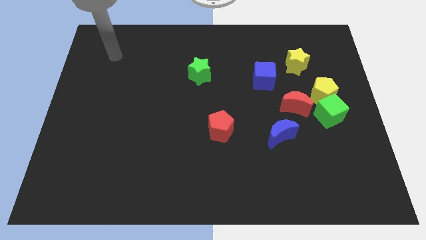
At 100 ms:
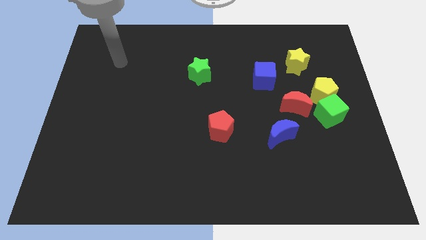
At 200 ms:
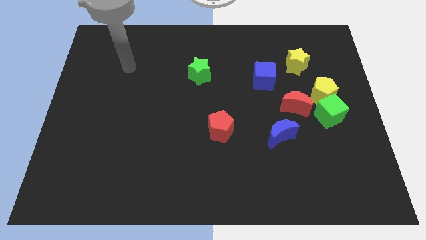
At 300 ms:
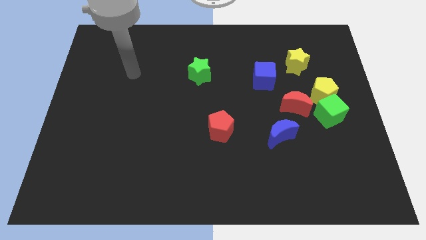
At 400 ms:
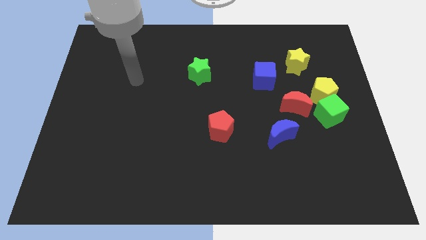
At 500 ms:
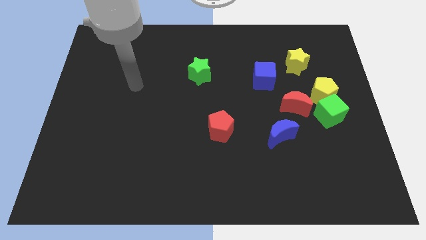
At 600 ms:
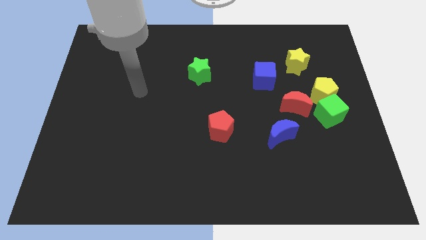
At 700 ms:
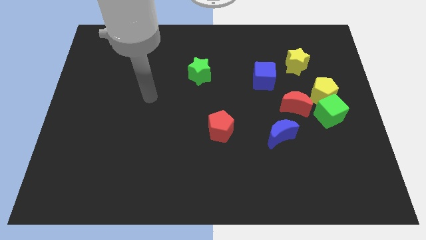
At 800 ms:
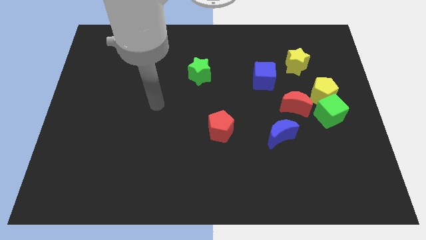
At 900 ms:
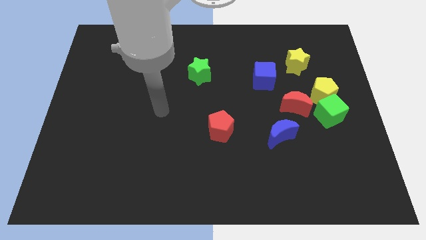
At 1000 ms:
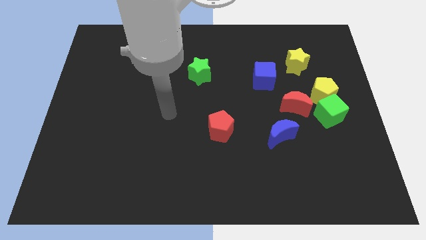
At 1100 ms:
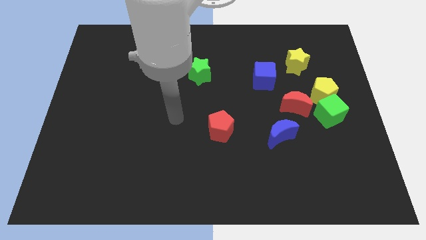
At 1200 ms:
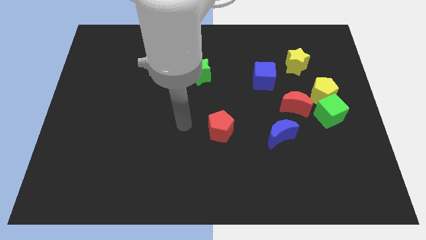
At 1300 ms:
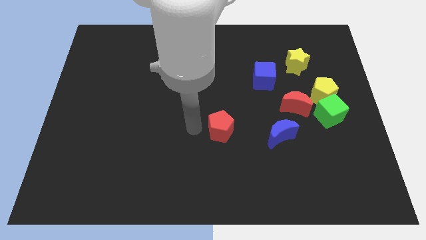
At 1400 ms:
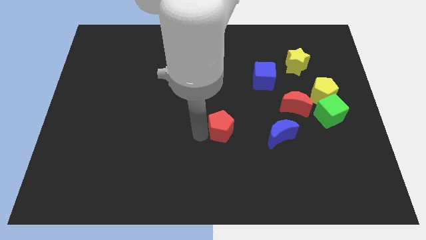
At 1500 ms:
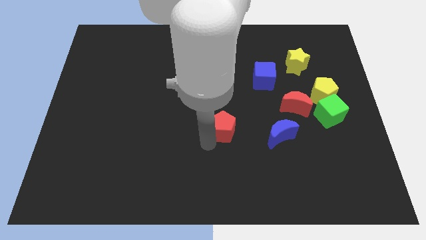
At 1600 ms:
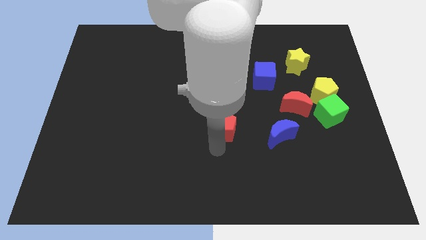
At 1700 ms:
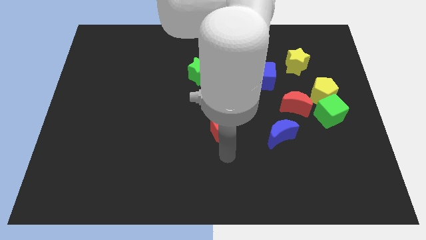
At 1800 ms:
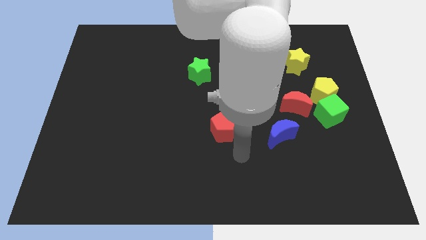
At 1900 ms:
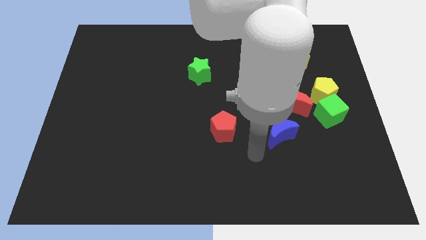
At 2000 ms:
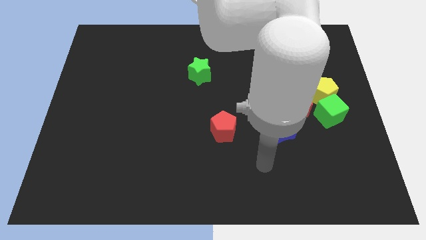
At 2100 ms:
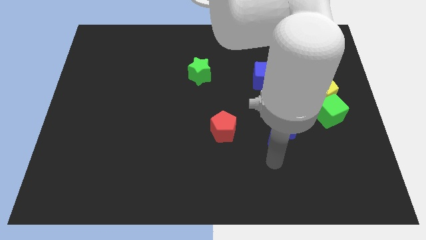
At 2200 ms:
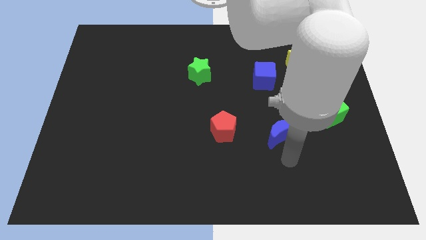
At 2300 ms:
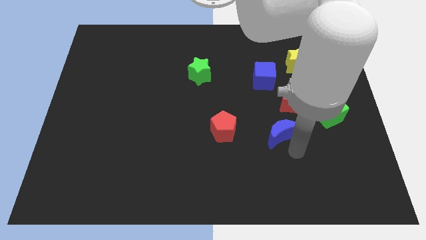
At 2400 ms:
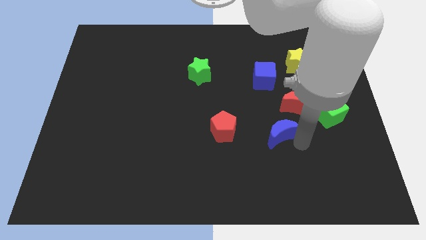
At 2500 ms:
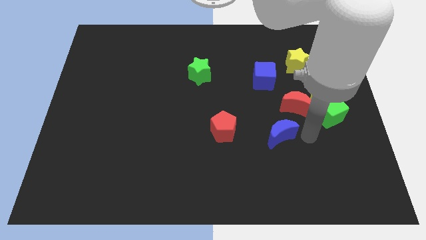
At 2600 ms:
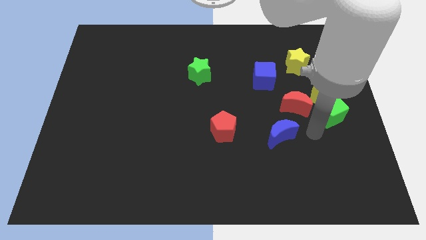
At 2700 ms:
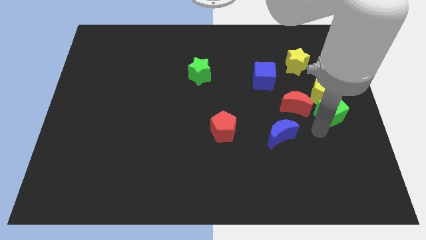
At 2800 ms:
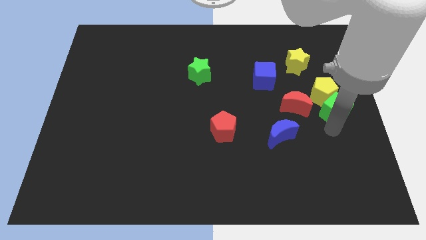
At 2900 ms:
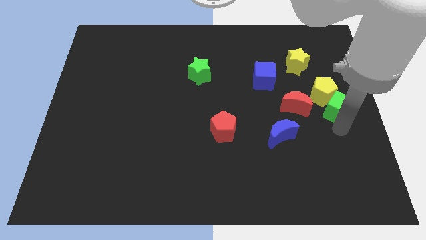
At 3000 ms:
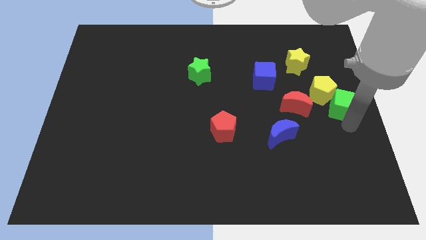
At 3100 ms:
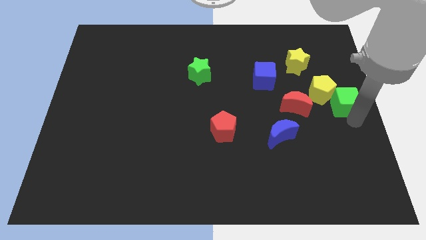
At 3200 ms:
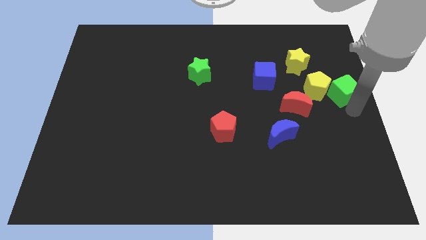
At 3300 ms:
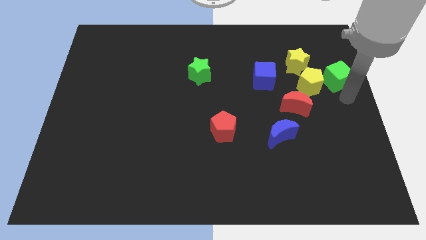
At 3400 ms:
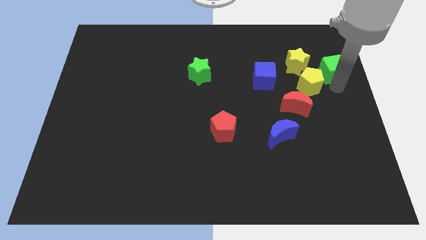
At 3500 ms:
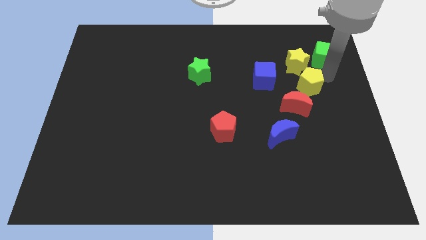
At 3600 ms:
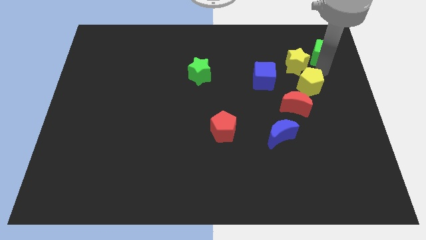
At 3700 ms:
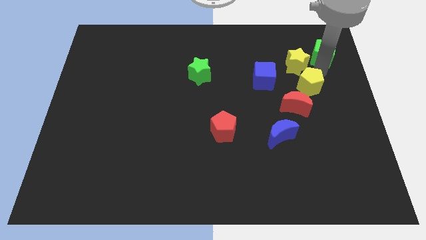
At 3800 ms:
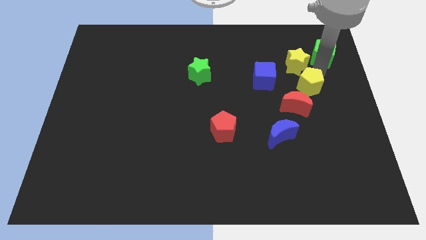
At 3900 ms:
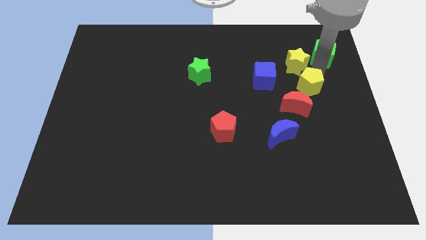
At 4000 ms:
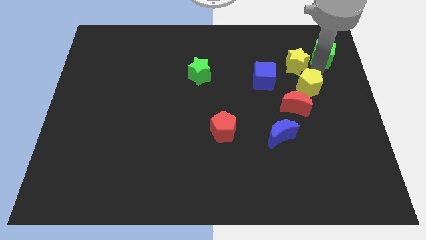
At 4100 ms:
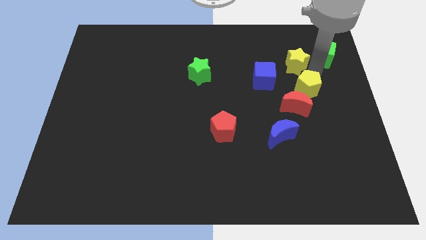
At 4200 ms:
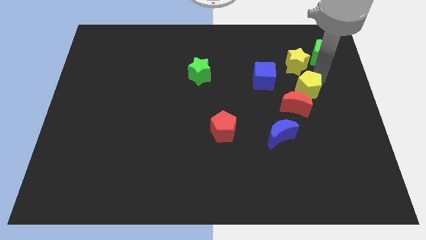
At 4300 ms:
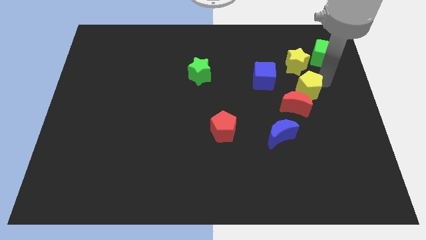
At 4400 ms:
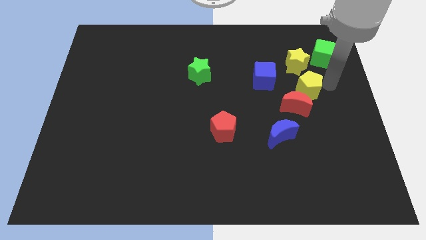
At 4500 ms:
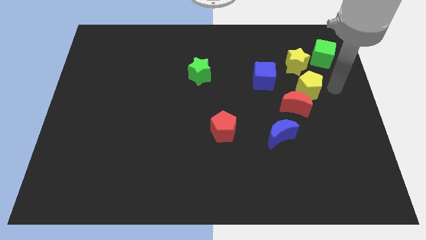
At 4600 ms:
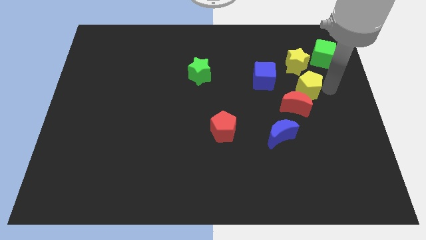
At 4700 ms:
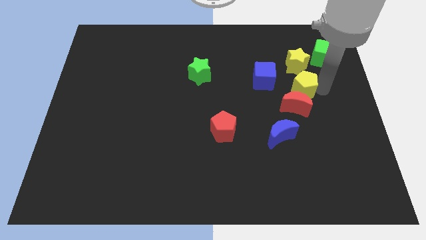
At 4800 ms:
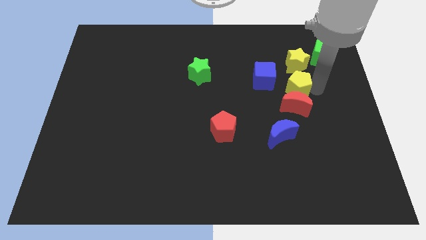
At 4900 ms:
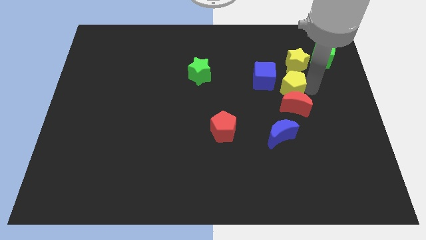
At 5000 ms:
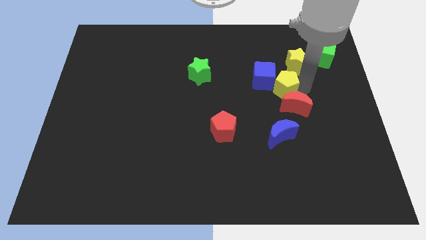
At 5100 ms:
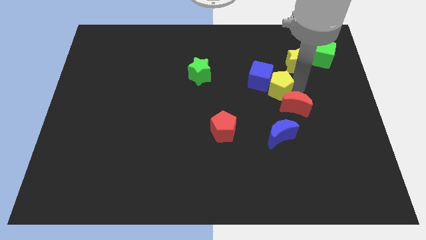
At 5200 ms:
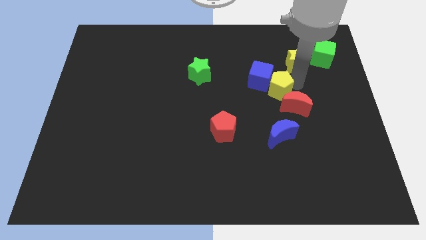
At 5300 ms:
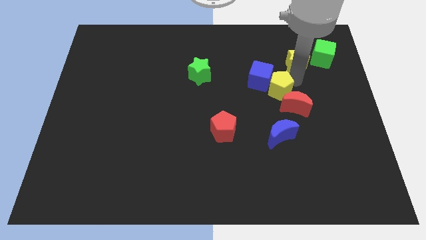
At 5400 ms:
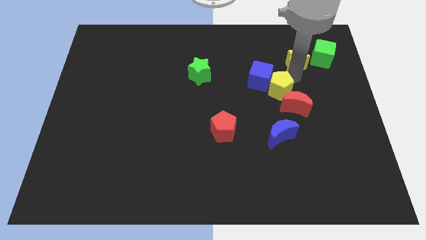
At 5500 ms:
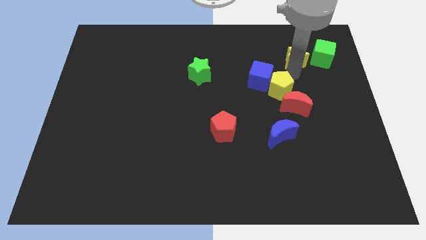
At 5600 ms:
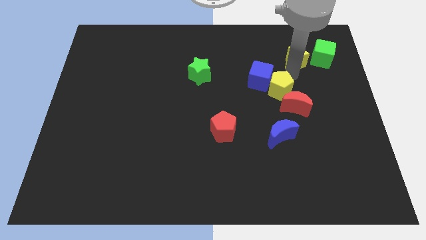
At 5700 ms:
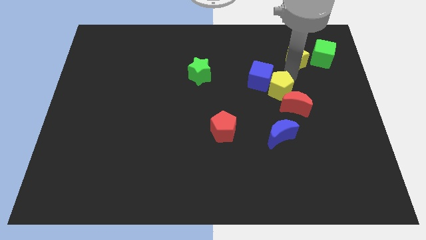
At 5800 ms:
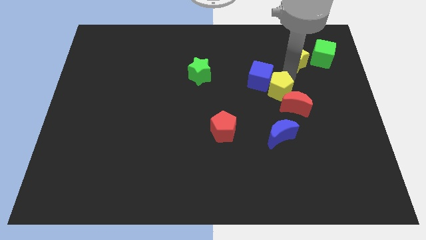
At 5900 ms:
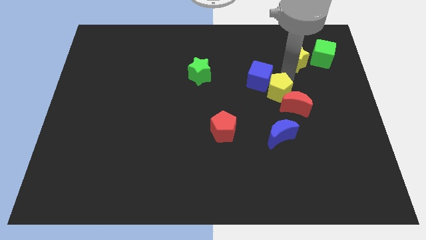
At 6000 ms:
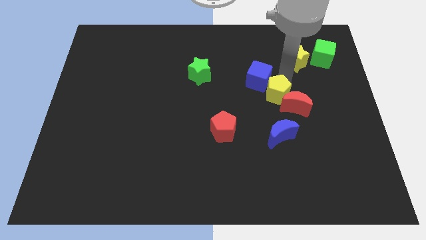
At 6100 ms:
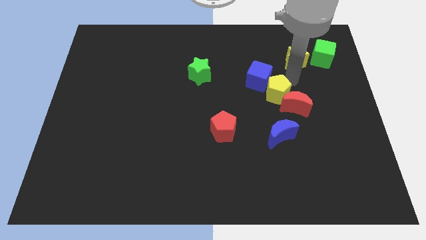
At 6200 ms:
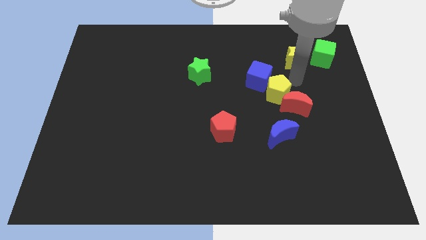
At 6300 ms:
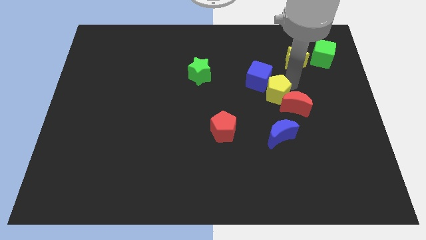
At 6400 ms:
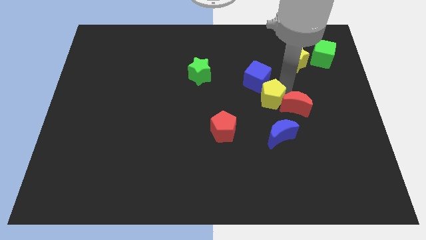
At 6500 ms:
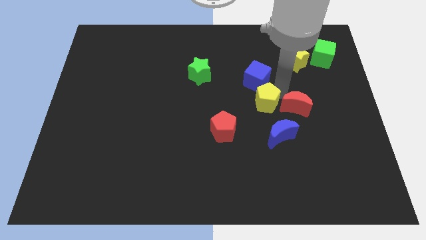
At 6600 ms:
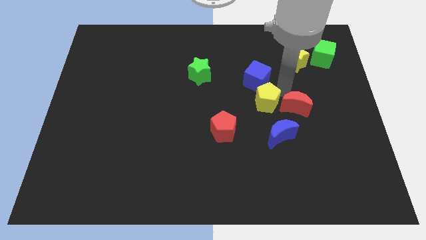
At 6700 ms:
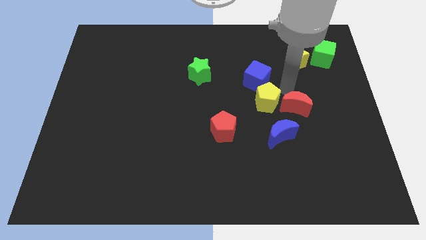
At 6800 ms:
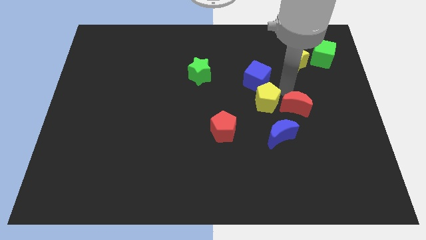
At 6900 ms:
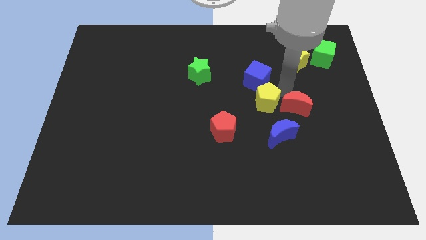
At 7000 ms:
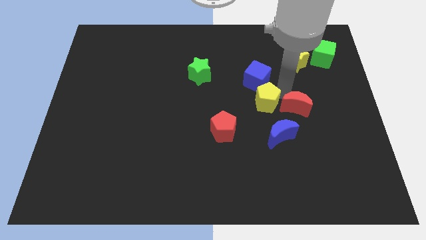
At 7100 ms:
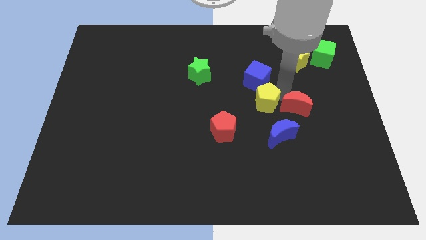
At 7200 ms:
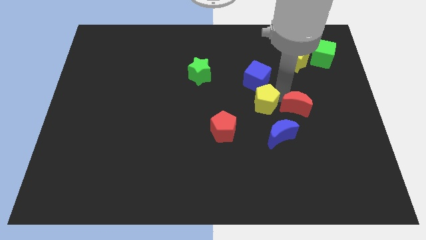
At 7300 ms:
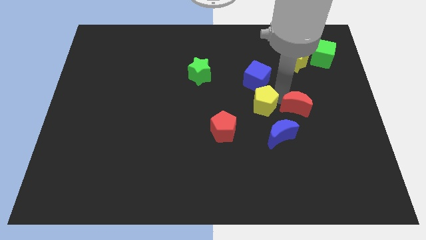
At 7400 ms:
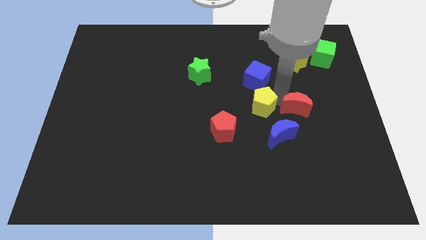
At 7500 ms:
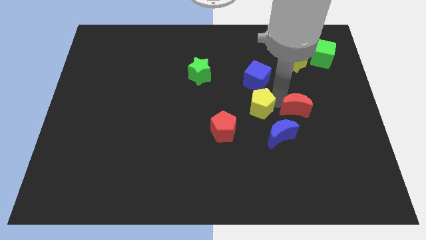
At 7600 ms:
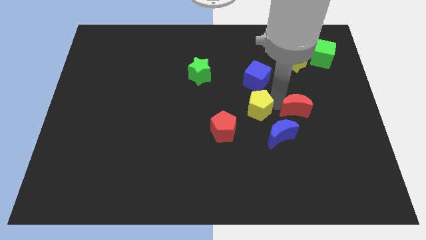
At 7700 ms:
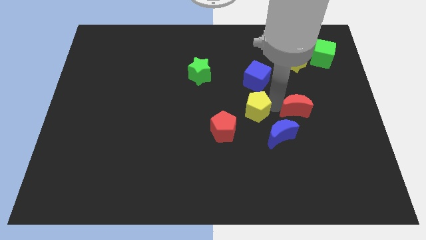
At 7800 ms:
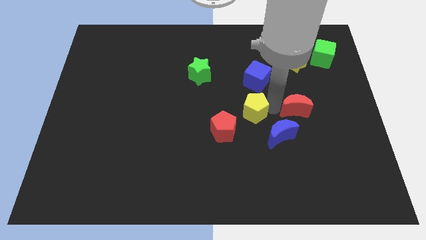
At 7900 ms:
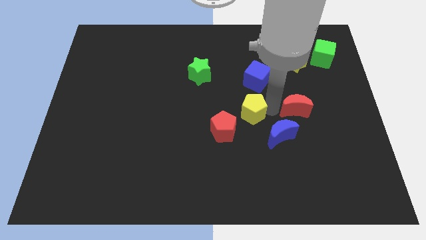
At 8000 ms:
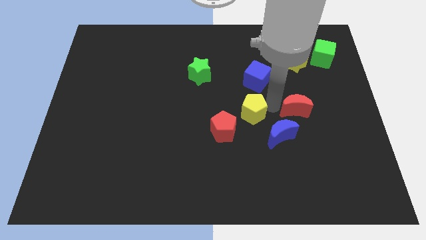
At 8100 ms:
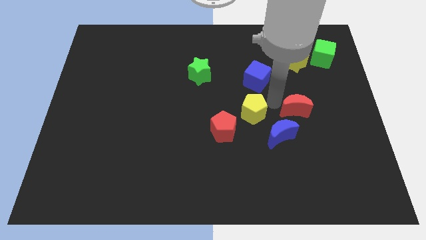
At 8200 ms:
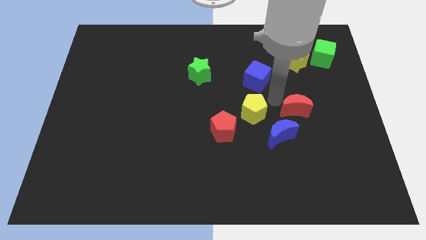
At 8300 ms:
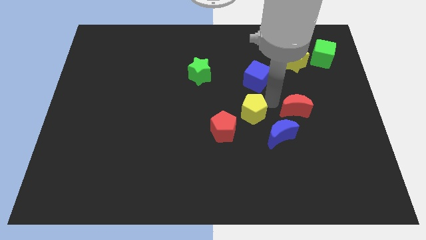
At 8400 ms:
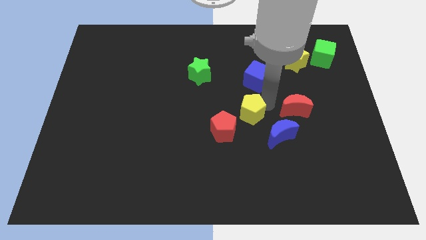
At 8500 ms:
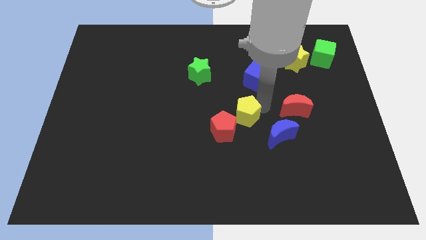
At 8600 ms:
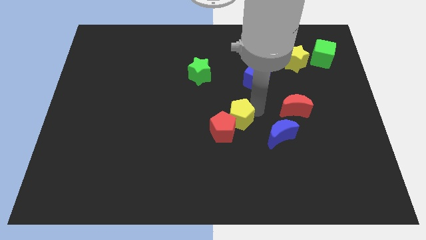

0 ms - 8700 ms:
move the yellow pentagon to the red pentagon
